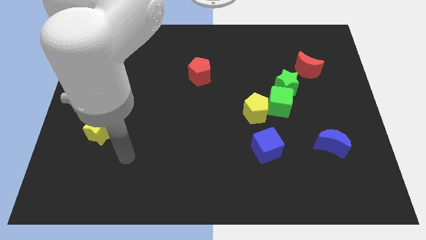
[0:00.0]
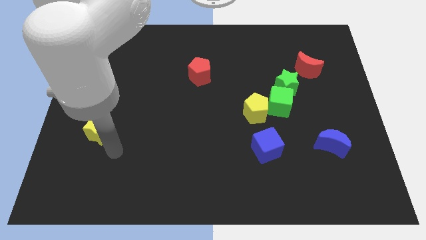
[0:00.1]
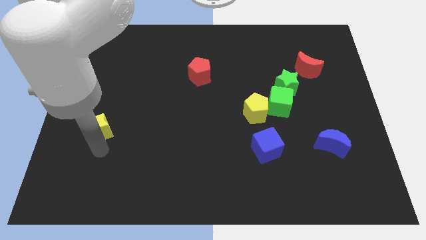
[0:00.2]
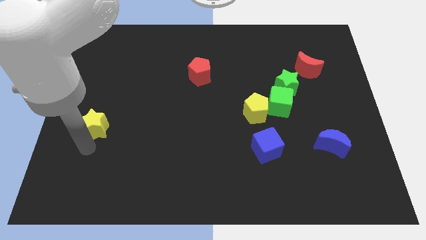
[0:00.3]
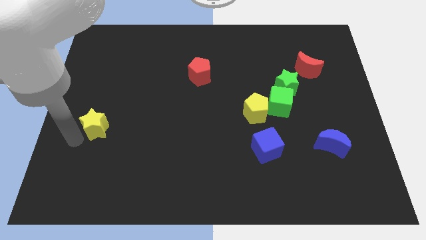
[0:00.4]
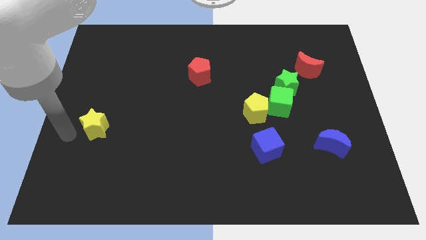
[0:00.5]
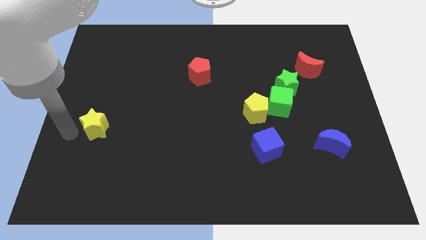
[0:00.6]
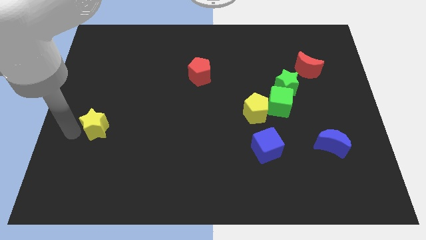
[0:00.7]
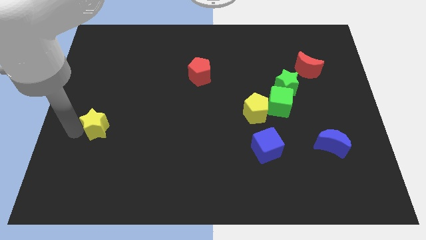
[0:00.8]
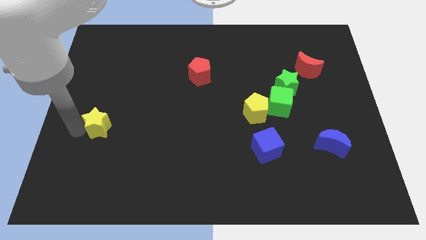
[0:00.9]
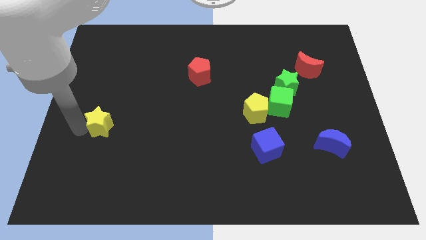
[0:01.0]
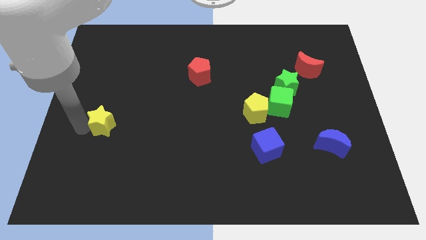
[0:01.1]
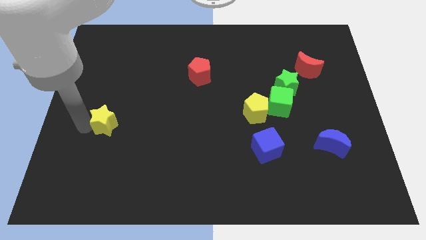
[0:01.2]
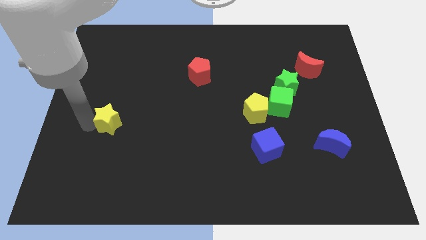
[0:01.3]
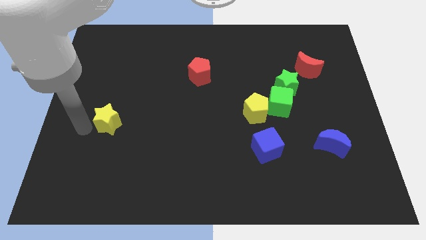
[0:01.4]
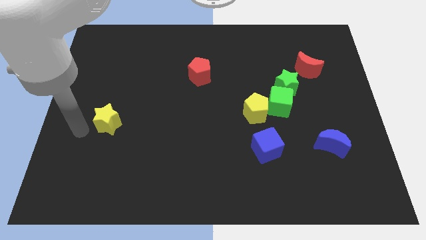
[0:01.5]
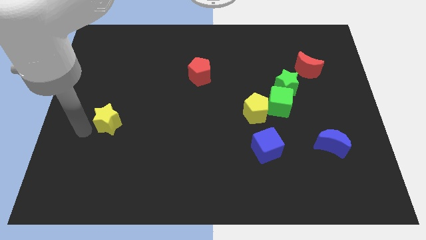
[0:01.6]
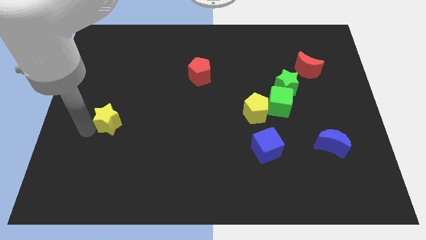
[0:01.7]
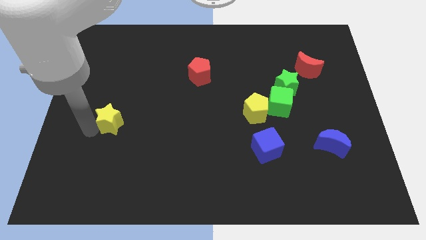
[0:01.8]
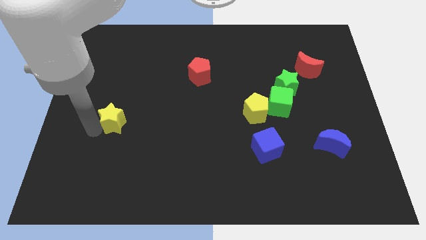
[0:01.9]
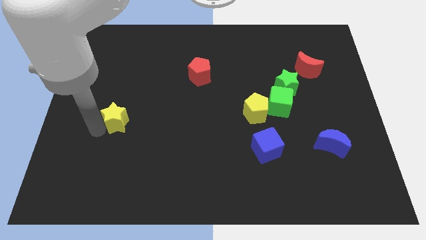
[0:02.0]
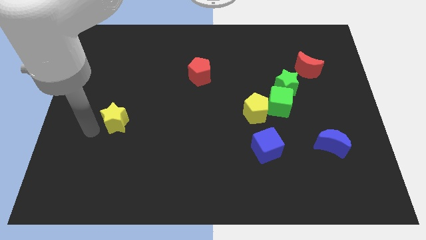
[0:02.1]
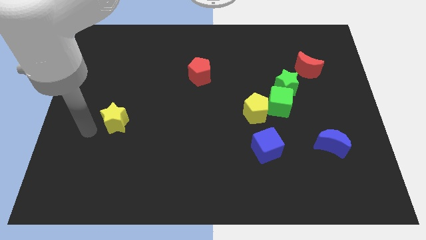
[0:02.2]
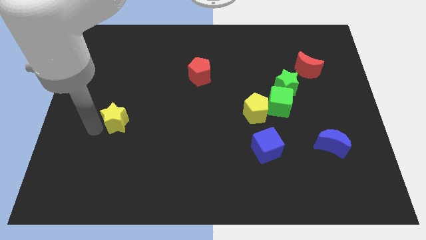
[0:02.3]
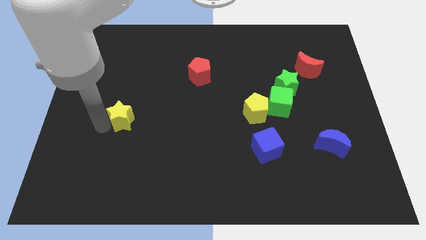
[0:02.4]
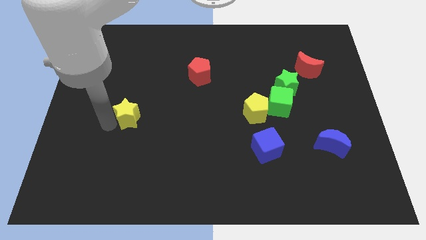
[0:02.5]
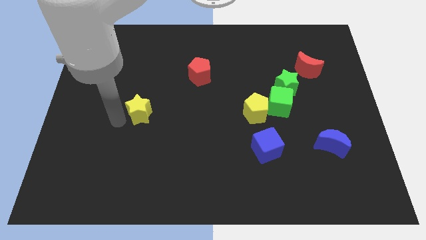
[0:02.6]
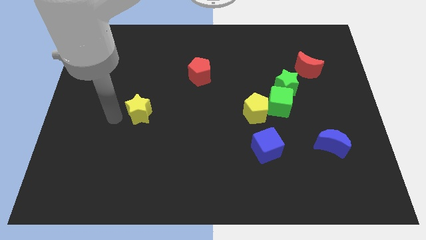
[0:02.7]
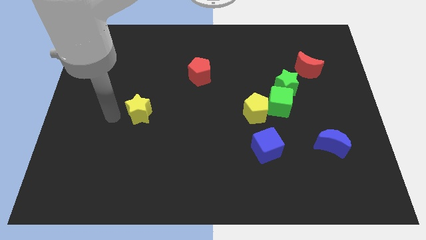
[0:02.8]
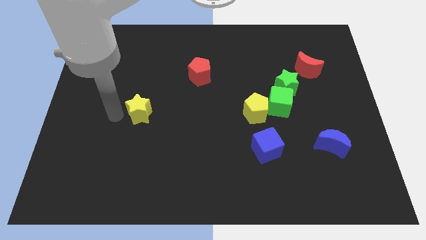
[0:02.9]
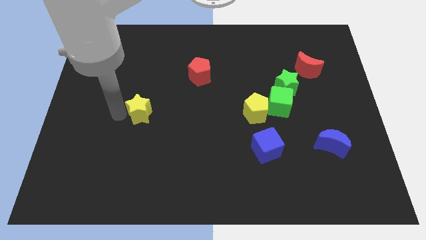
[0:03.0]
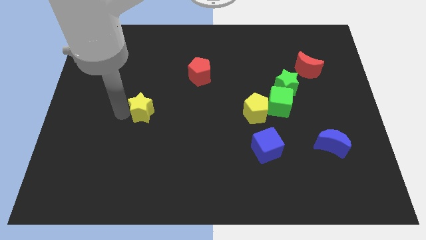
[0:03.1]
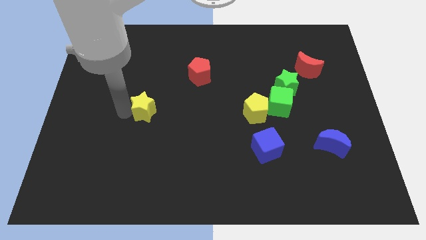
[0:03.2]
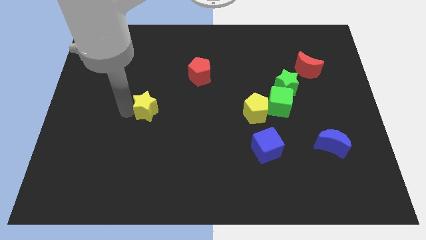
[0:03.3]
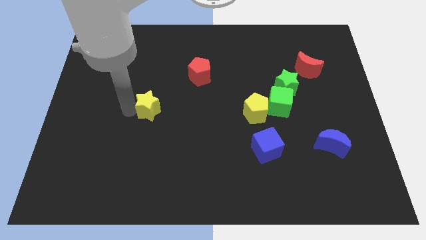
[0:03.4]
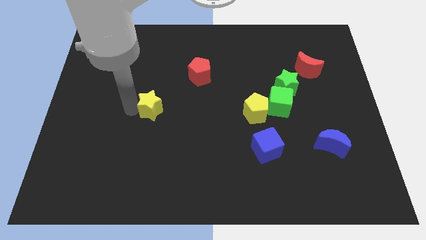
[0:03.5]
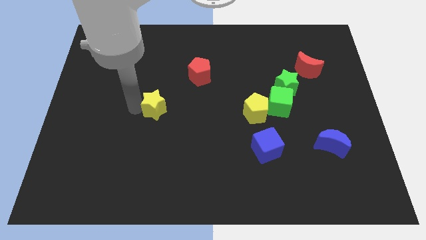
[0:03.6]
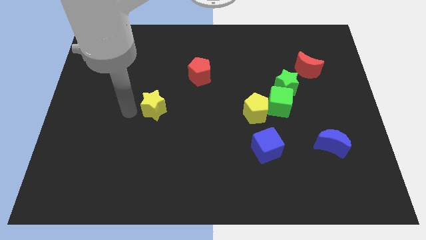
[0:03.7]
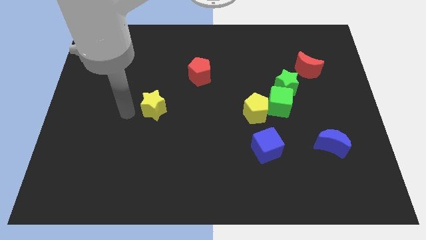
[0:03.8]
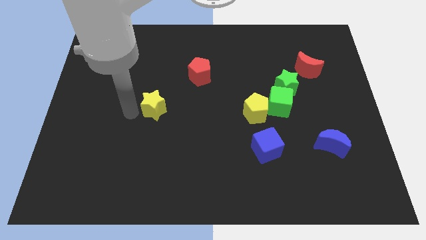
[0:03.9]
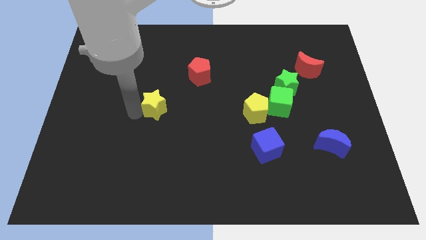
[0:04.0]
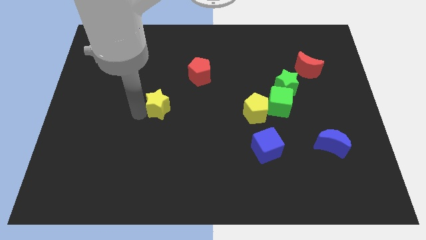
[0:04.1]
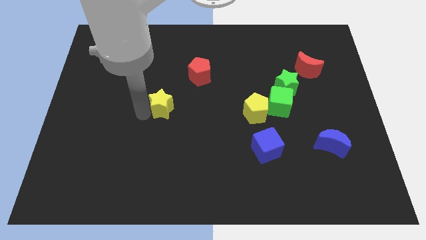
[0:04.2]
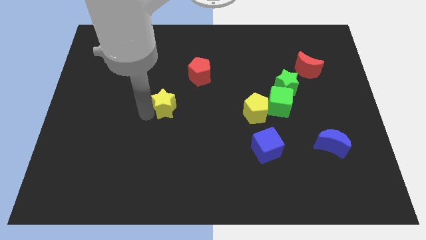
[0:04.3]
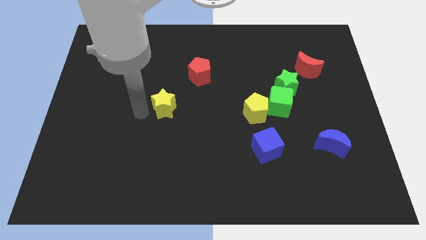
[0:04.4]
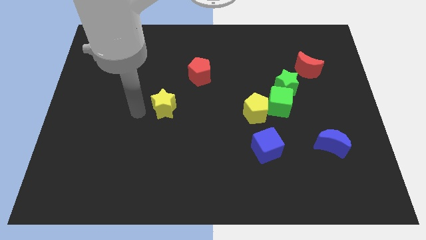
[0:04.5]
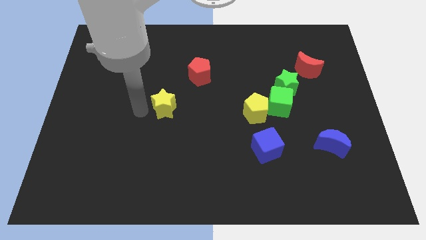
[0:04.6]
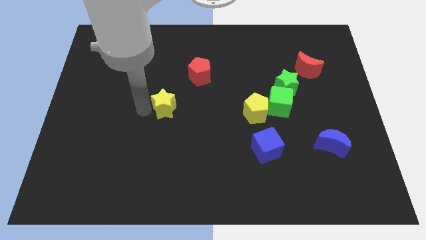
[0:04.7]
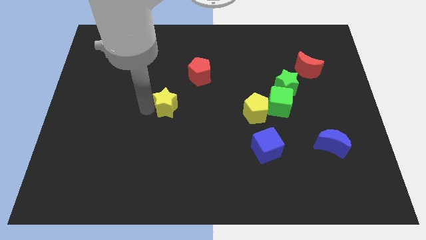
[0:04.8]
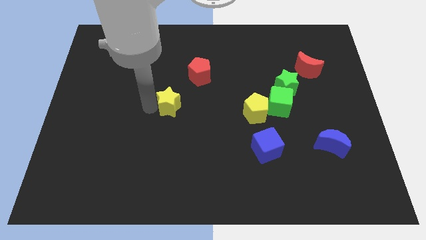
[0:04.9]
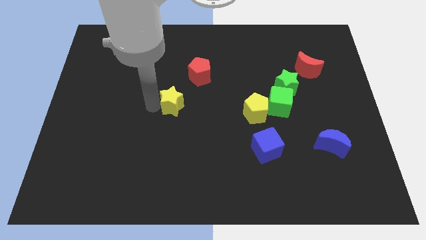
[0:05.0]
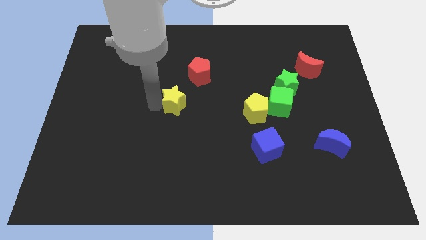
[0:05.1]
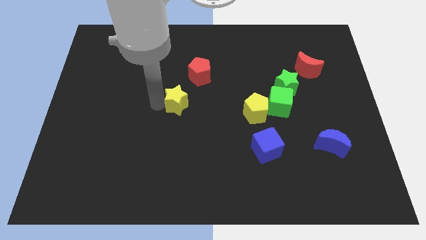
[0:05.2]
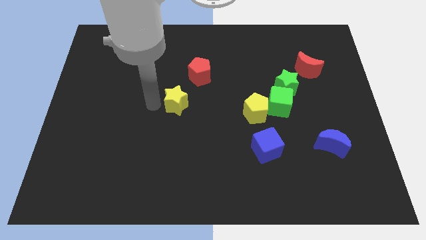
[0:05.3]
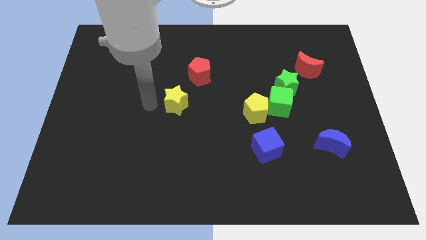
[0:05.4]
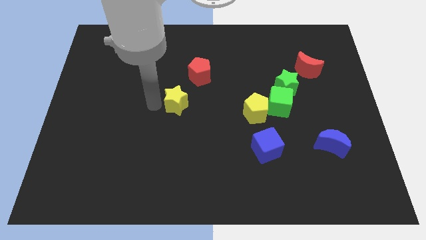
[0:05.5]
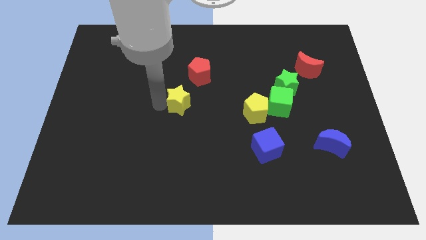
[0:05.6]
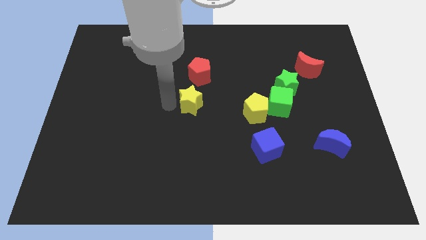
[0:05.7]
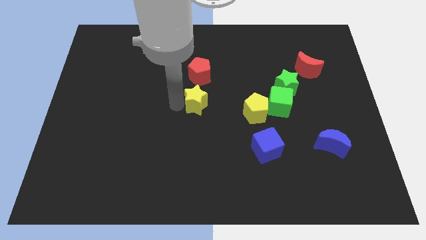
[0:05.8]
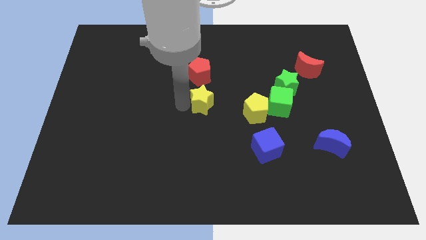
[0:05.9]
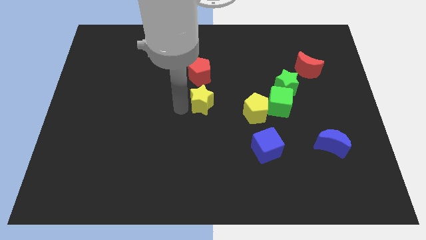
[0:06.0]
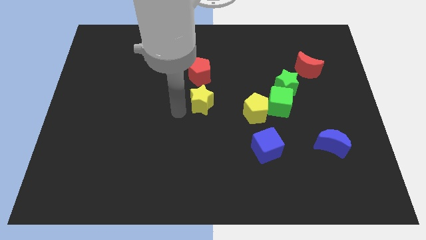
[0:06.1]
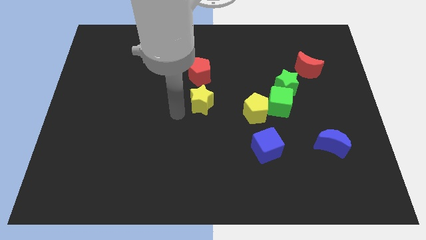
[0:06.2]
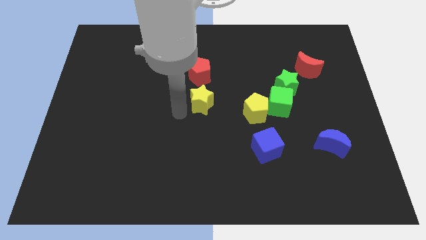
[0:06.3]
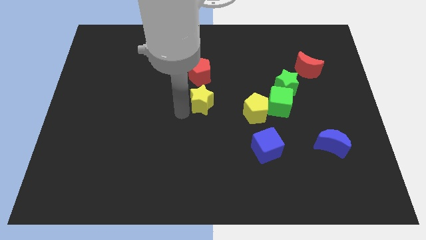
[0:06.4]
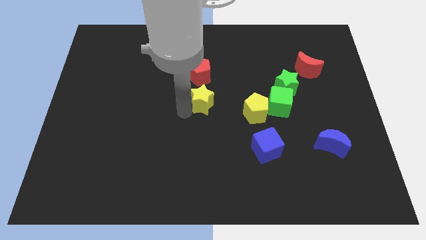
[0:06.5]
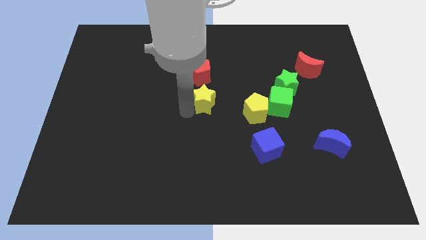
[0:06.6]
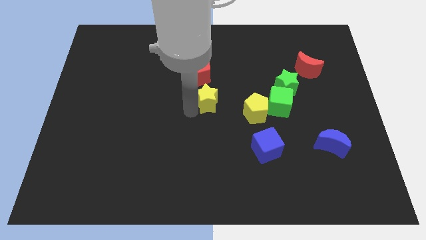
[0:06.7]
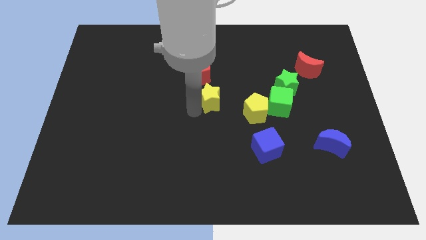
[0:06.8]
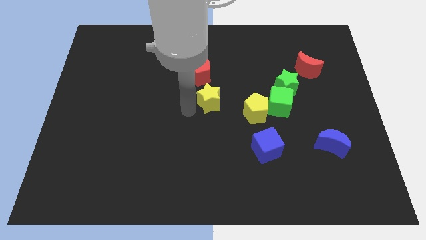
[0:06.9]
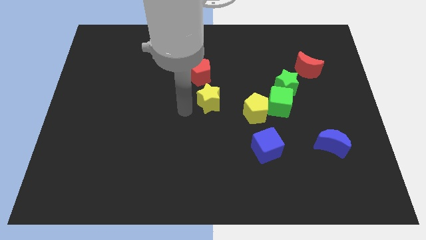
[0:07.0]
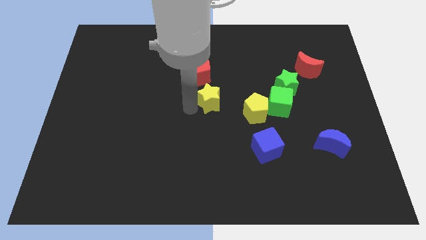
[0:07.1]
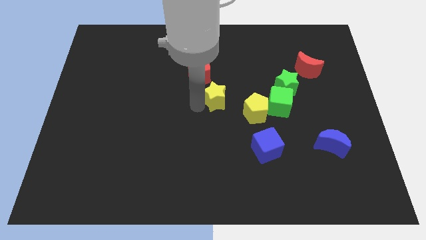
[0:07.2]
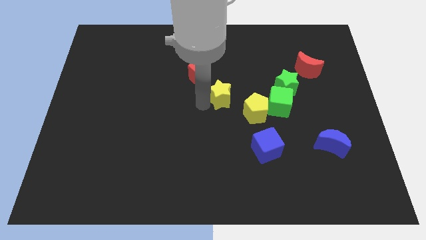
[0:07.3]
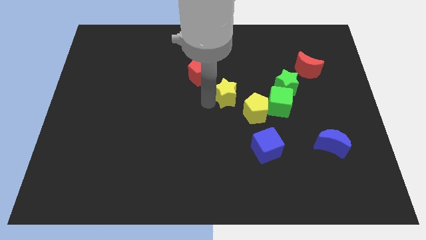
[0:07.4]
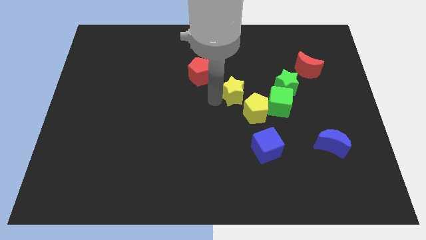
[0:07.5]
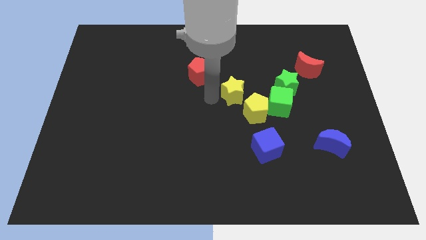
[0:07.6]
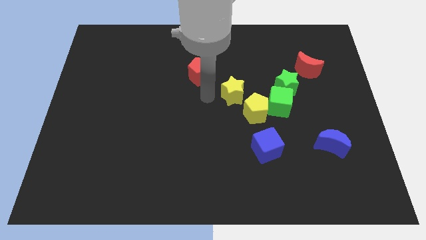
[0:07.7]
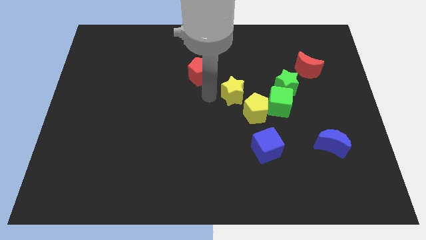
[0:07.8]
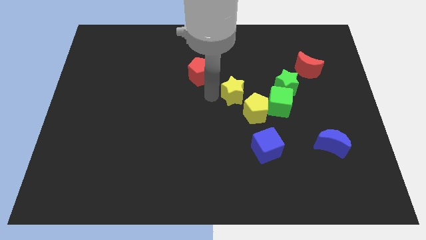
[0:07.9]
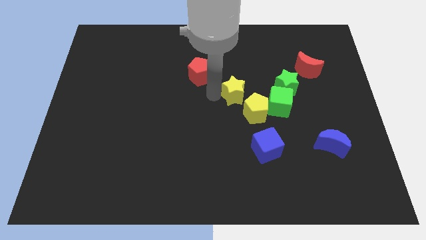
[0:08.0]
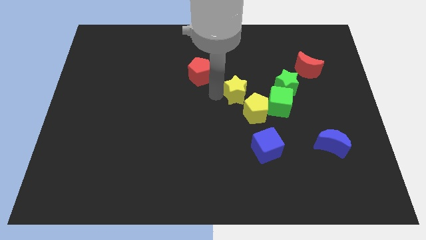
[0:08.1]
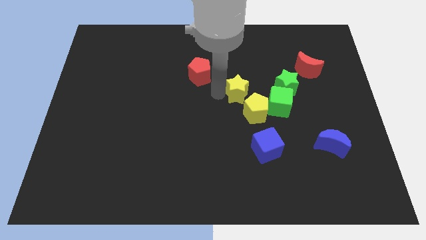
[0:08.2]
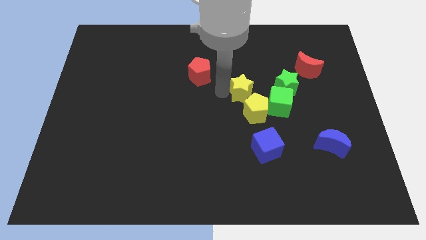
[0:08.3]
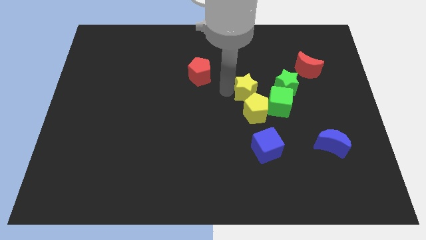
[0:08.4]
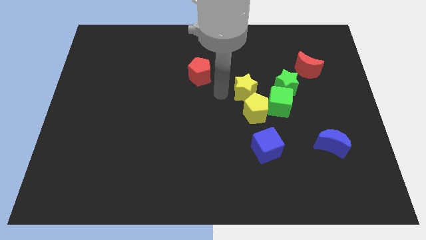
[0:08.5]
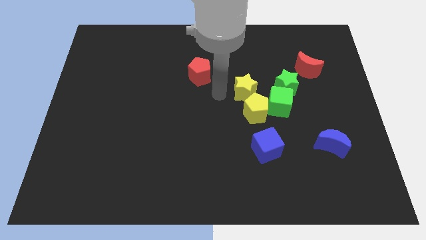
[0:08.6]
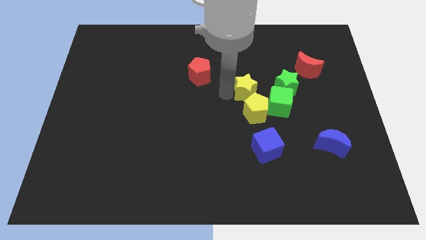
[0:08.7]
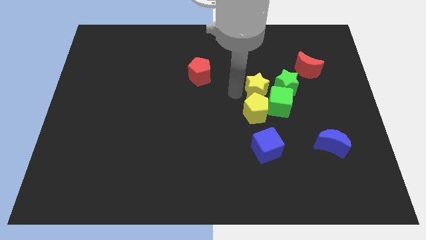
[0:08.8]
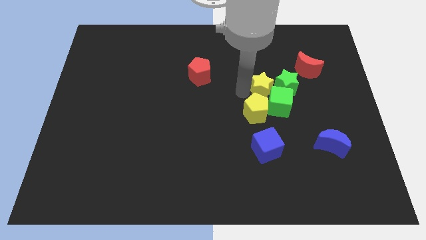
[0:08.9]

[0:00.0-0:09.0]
move the yellow star next to the green star
